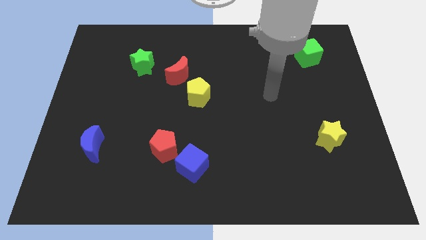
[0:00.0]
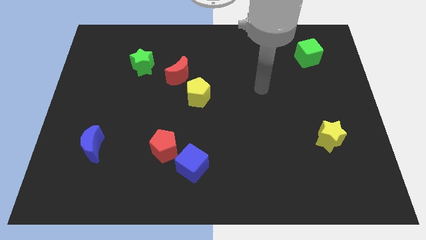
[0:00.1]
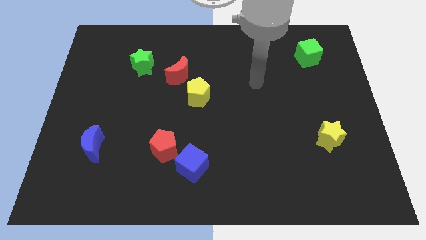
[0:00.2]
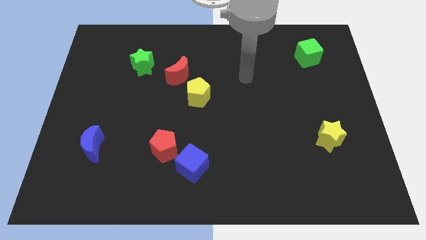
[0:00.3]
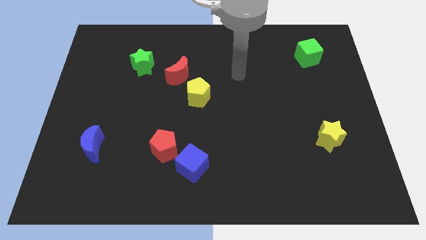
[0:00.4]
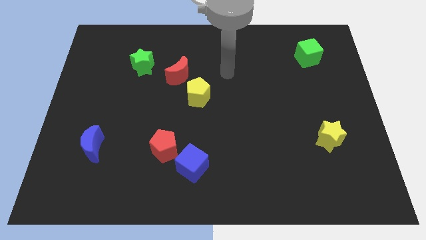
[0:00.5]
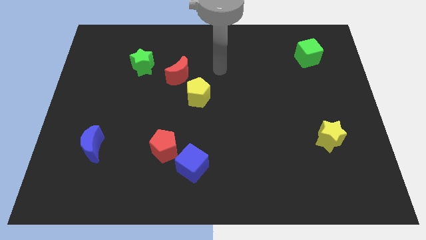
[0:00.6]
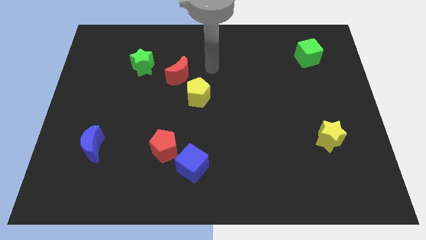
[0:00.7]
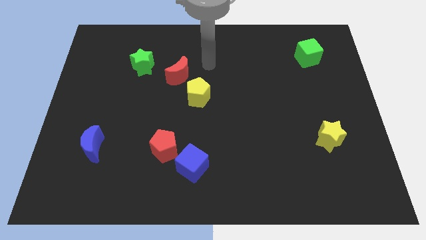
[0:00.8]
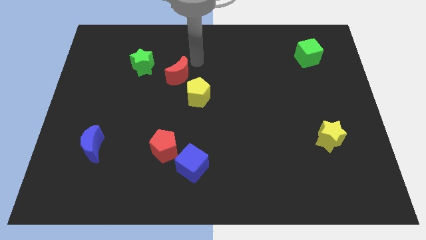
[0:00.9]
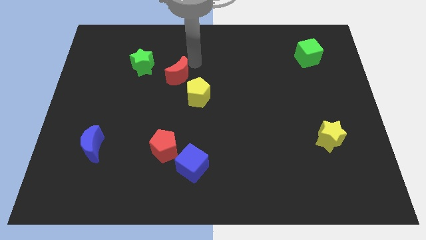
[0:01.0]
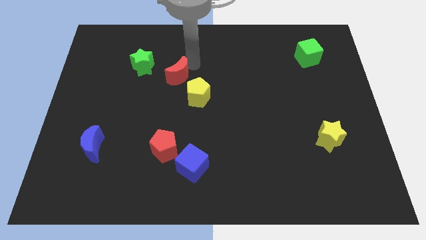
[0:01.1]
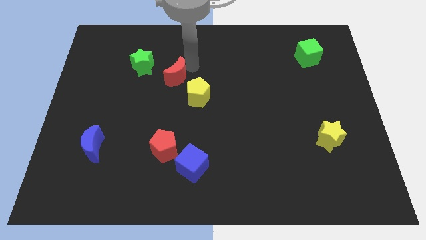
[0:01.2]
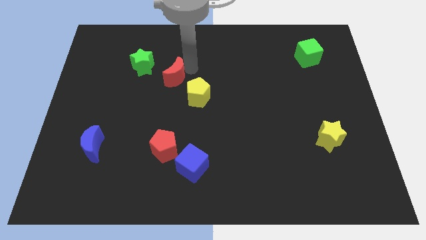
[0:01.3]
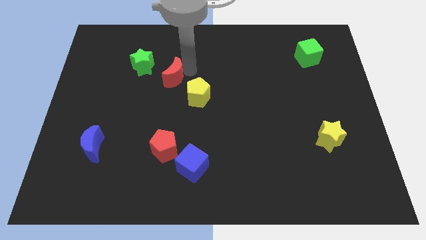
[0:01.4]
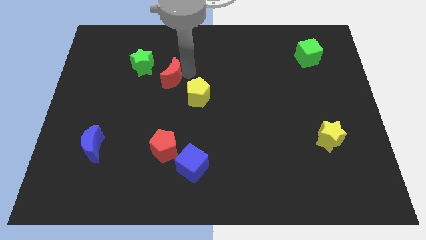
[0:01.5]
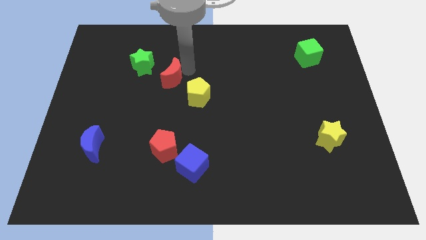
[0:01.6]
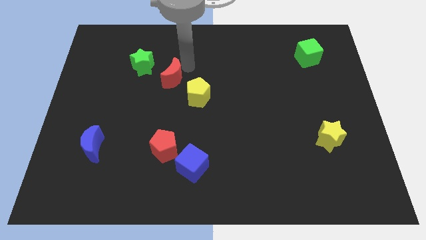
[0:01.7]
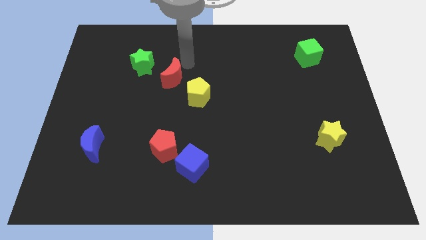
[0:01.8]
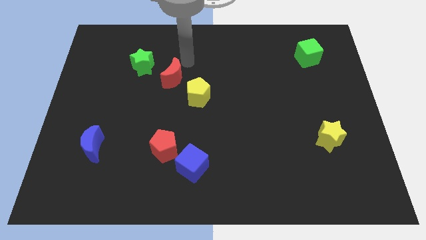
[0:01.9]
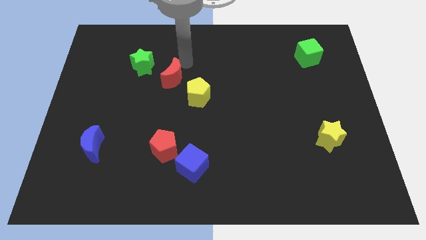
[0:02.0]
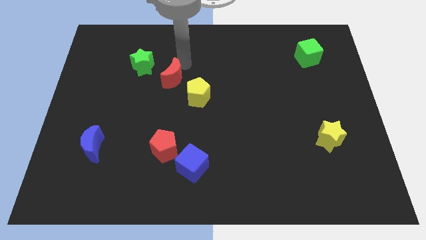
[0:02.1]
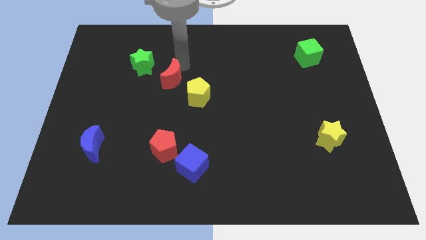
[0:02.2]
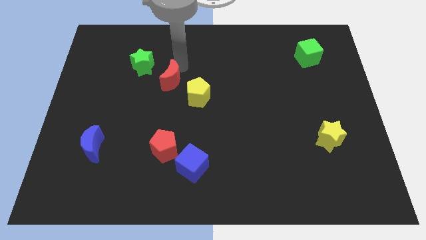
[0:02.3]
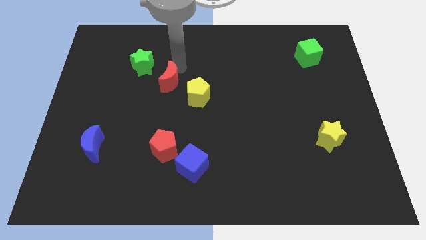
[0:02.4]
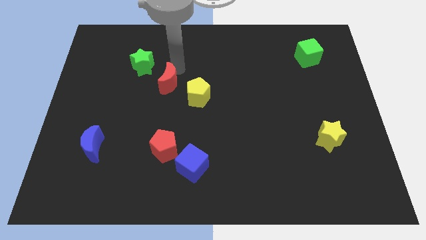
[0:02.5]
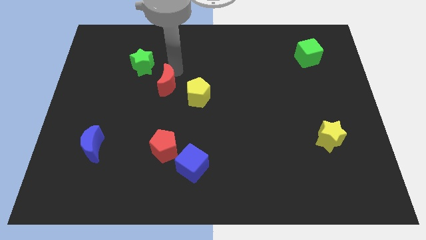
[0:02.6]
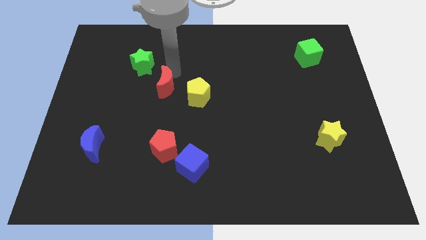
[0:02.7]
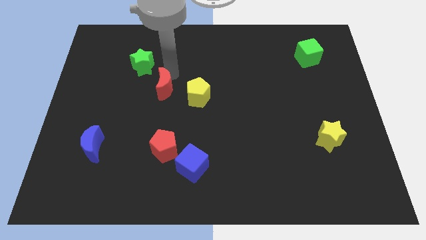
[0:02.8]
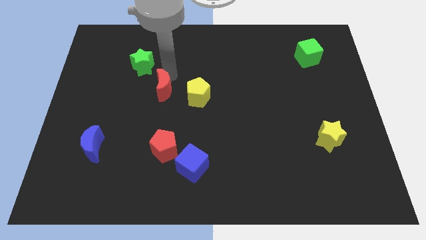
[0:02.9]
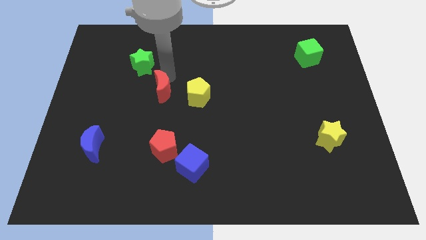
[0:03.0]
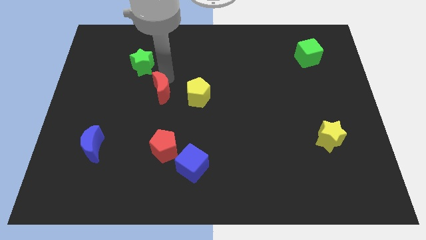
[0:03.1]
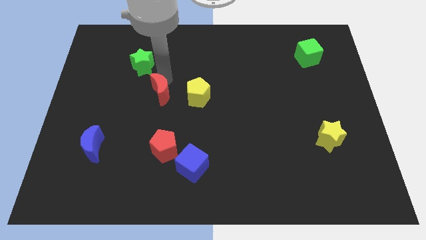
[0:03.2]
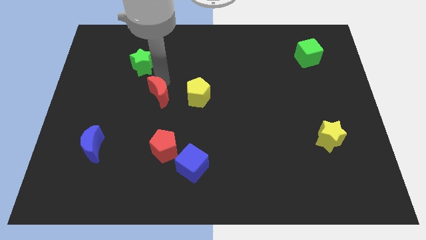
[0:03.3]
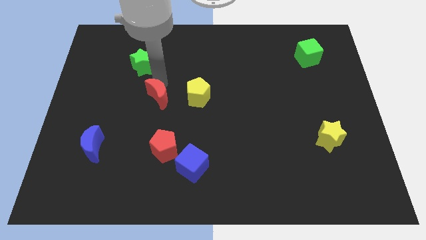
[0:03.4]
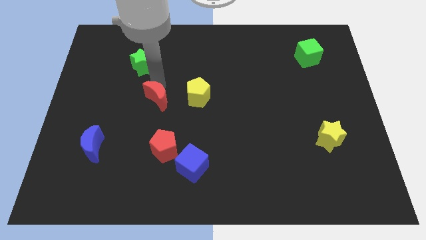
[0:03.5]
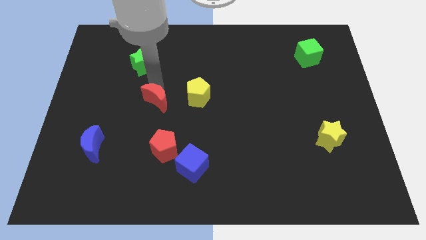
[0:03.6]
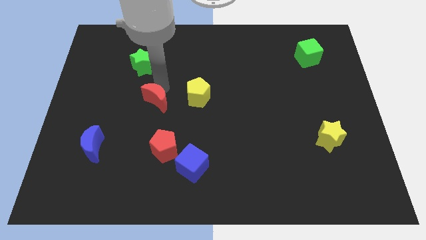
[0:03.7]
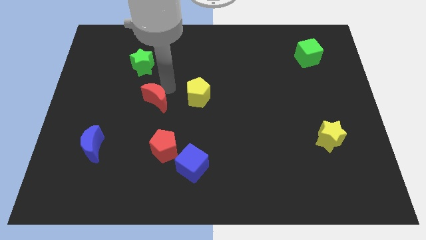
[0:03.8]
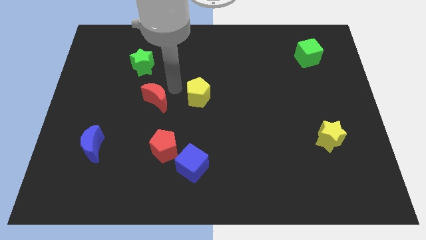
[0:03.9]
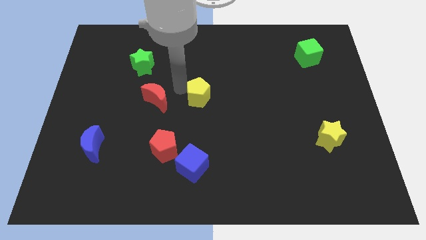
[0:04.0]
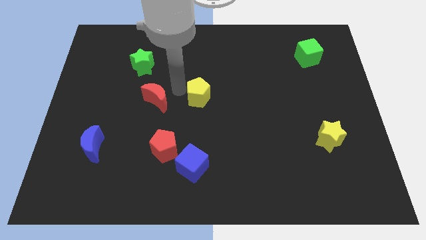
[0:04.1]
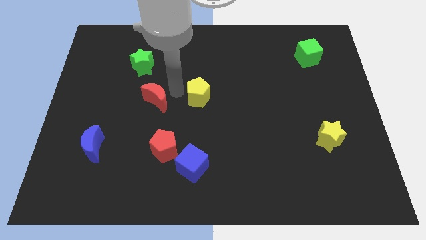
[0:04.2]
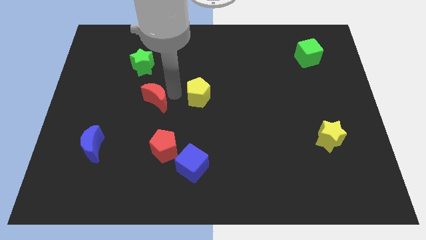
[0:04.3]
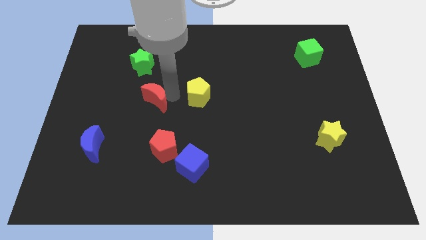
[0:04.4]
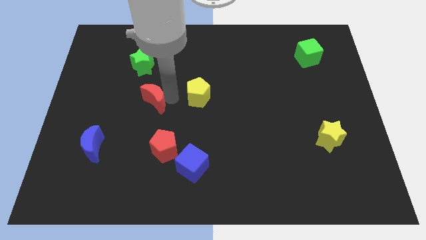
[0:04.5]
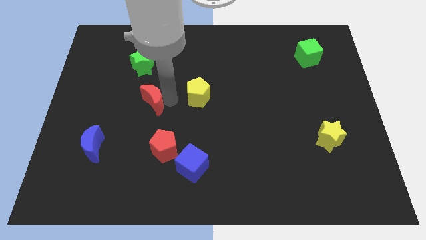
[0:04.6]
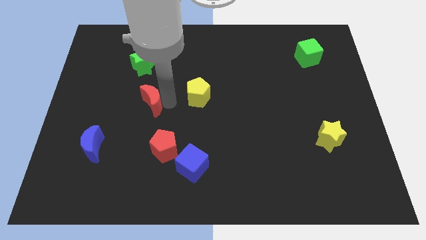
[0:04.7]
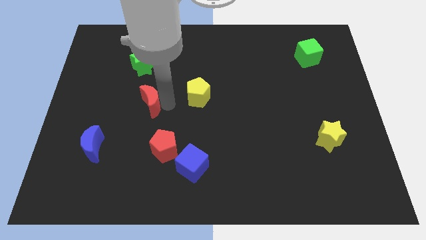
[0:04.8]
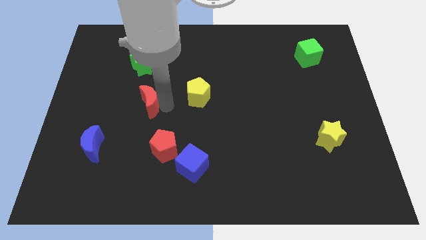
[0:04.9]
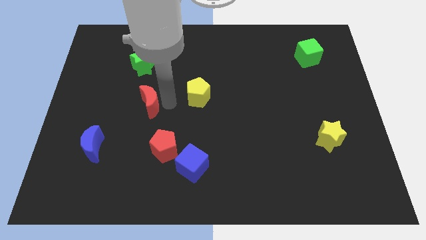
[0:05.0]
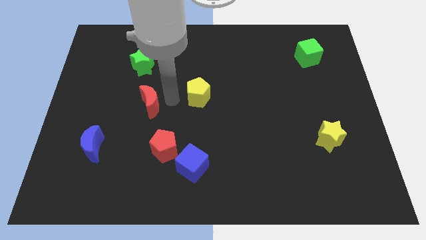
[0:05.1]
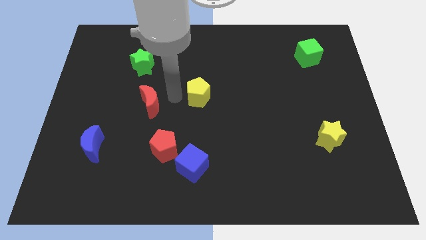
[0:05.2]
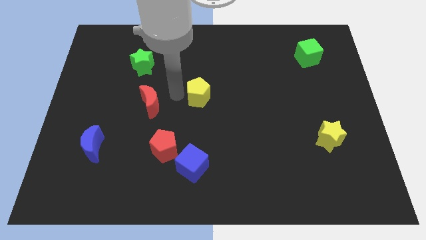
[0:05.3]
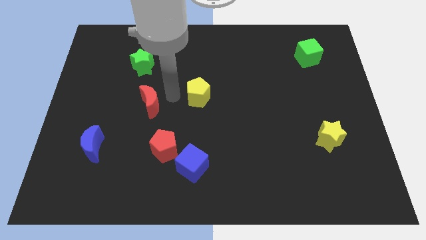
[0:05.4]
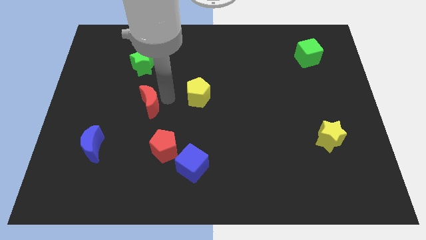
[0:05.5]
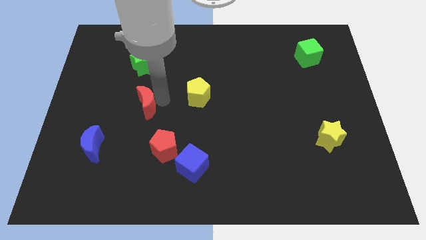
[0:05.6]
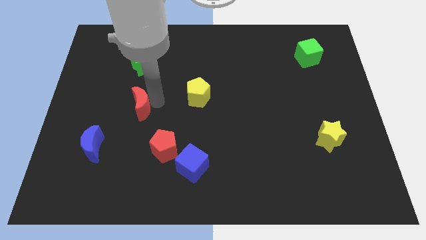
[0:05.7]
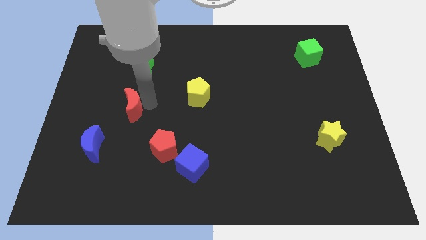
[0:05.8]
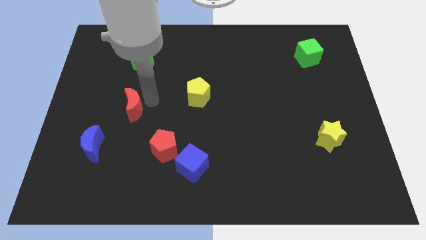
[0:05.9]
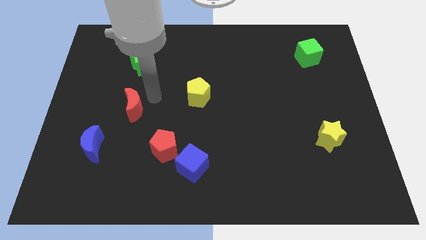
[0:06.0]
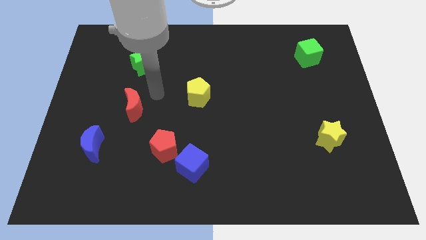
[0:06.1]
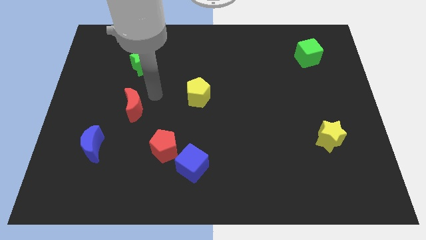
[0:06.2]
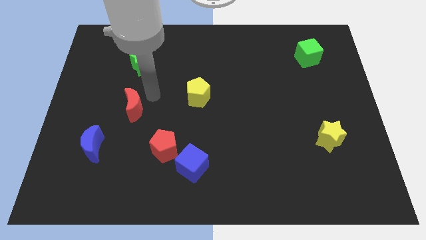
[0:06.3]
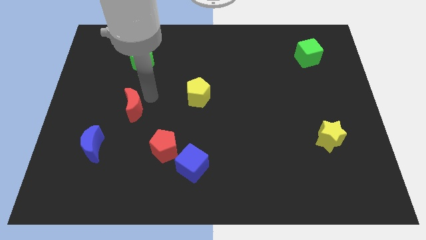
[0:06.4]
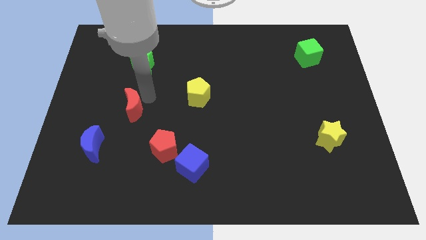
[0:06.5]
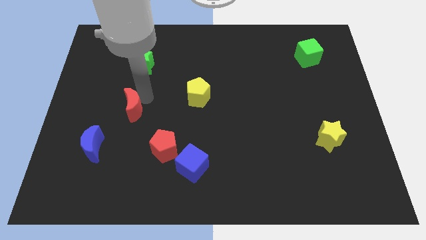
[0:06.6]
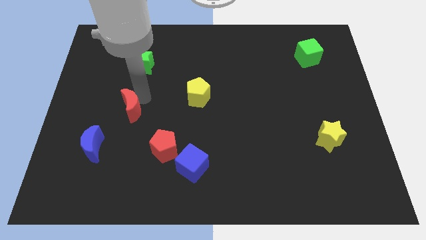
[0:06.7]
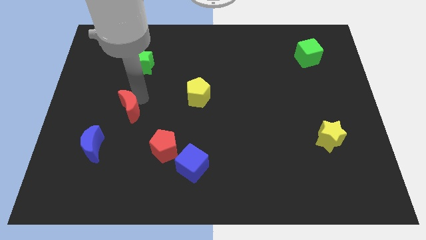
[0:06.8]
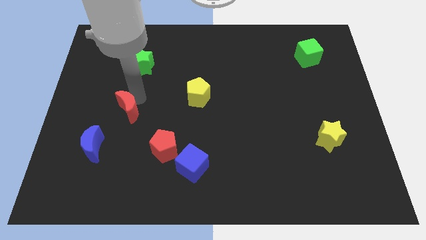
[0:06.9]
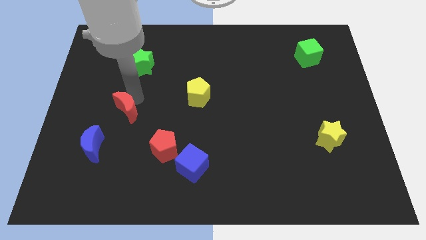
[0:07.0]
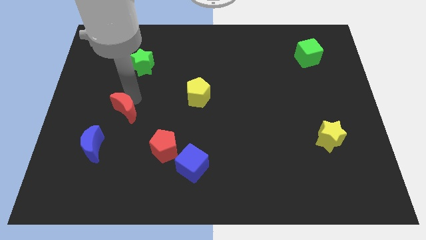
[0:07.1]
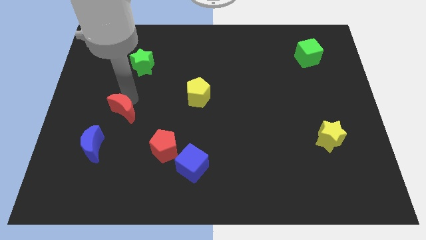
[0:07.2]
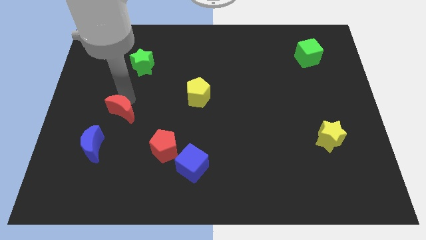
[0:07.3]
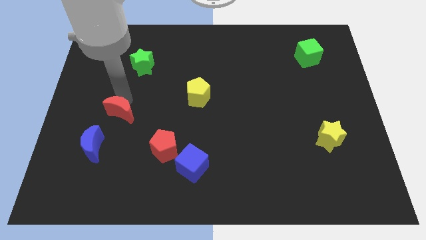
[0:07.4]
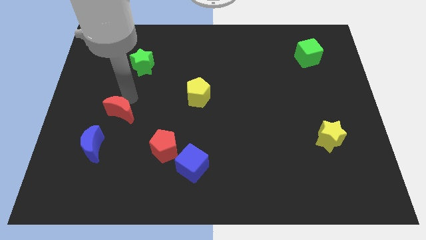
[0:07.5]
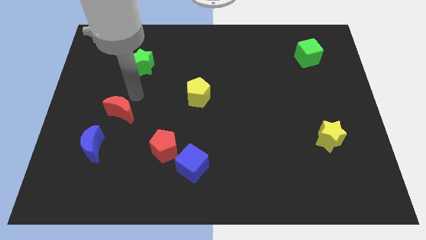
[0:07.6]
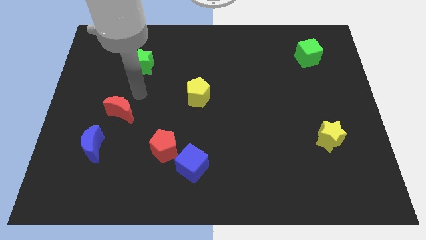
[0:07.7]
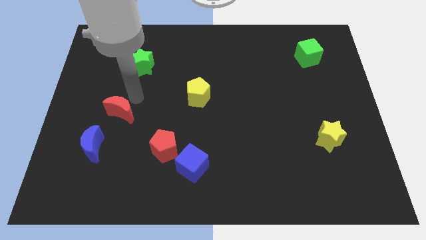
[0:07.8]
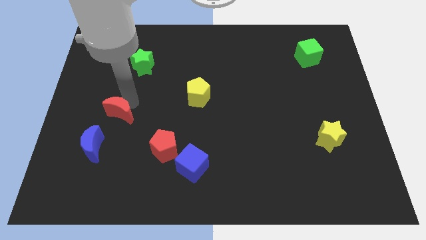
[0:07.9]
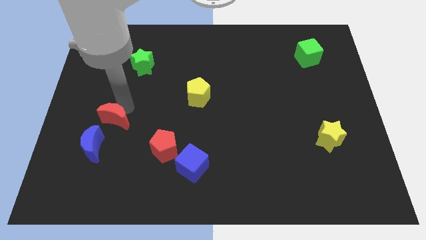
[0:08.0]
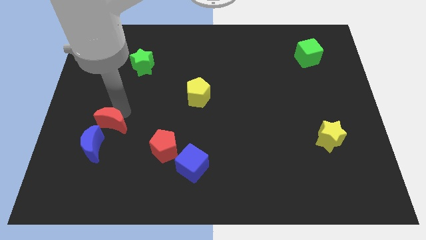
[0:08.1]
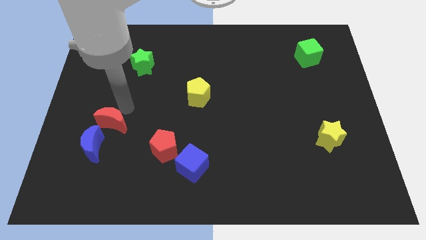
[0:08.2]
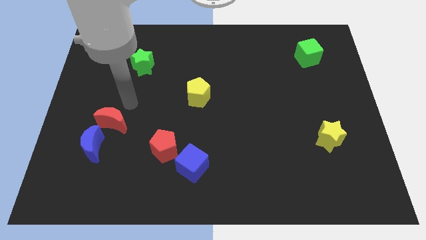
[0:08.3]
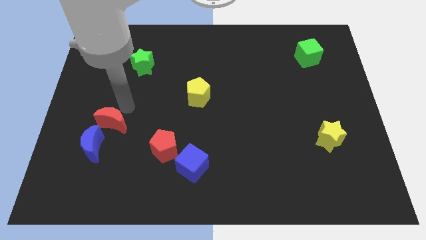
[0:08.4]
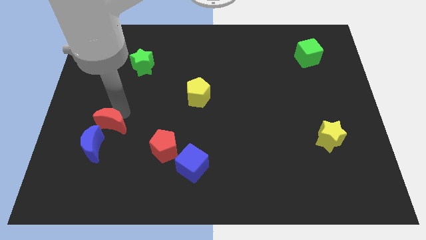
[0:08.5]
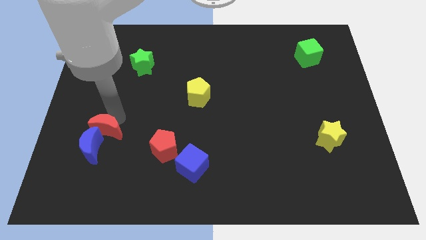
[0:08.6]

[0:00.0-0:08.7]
slide the red moon to the blue moon
